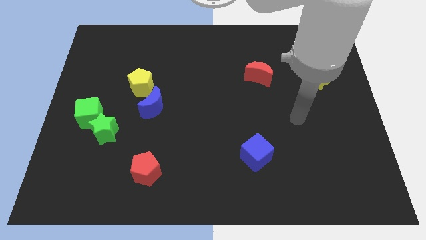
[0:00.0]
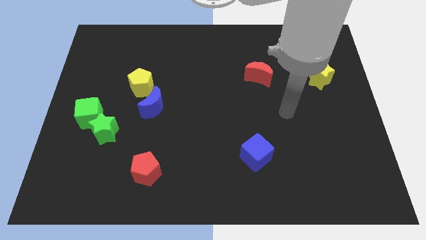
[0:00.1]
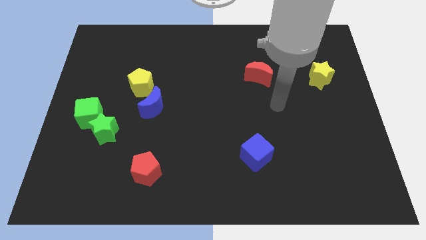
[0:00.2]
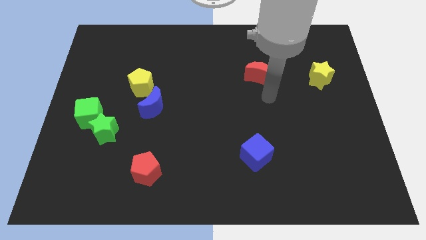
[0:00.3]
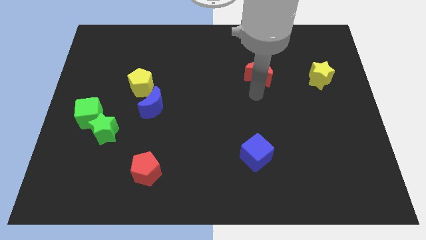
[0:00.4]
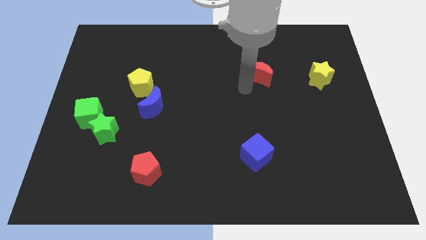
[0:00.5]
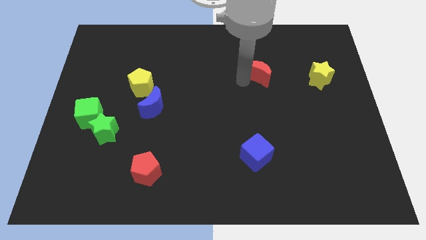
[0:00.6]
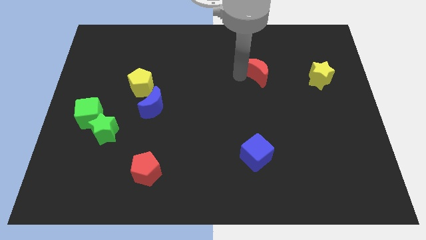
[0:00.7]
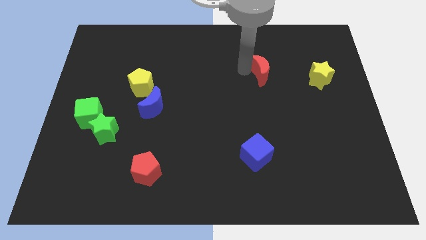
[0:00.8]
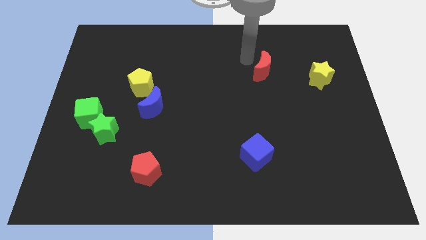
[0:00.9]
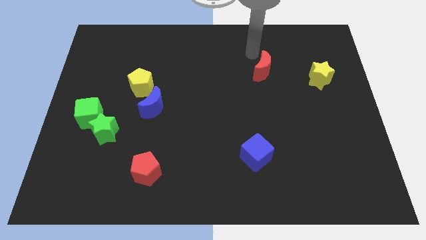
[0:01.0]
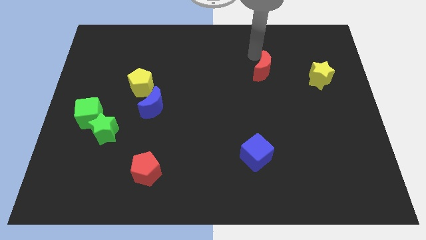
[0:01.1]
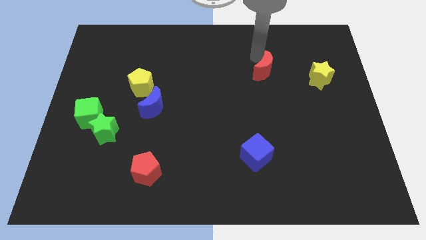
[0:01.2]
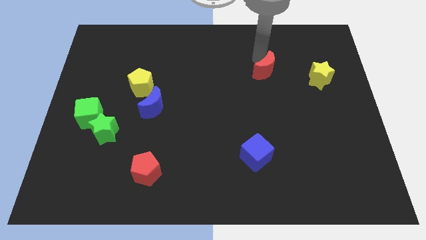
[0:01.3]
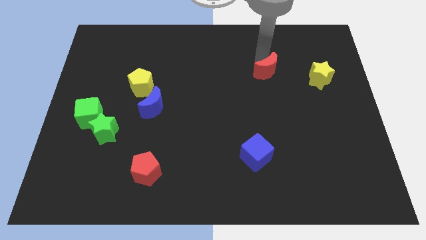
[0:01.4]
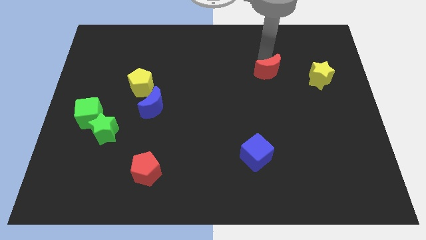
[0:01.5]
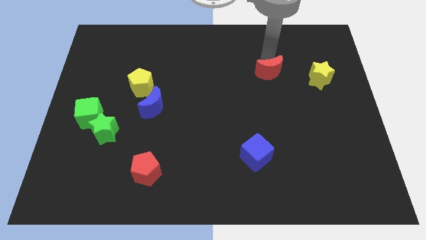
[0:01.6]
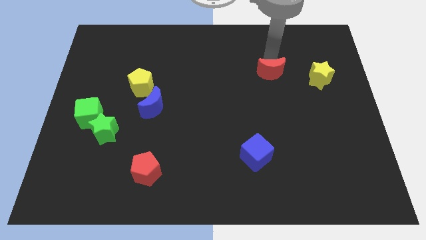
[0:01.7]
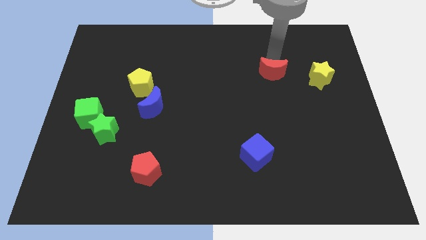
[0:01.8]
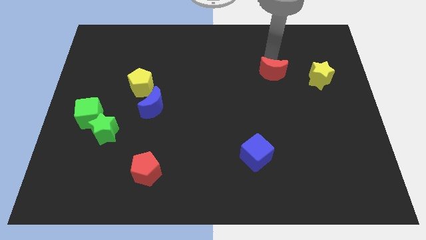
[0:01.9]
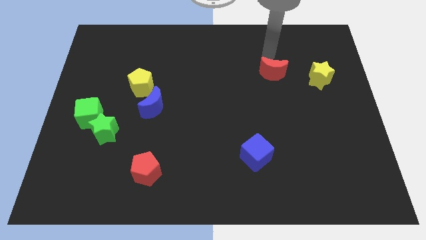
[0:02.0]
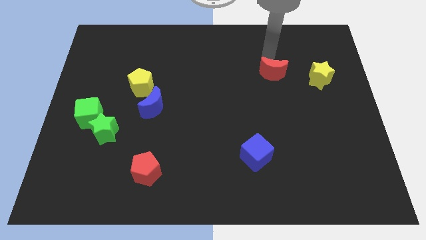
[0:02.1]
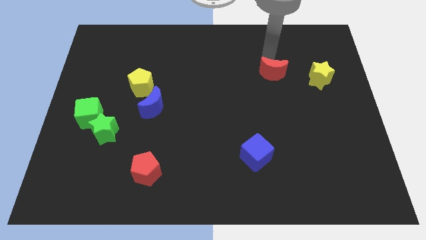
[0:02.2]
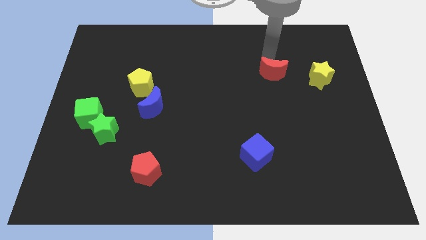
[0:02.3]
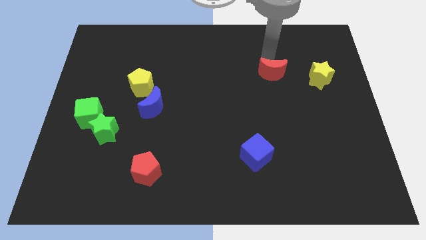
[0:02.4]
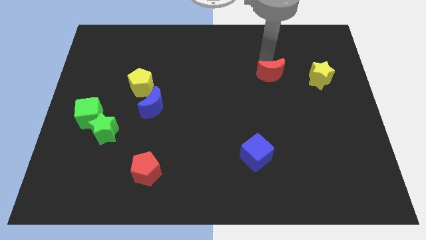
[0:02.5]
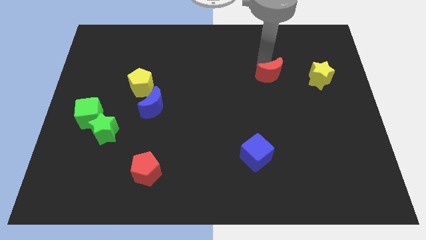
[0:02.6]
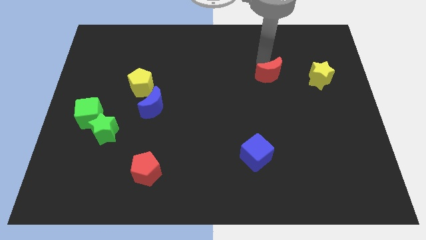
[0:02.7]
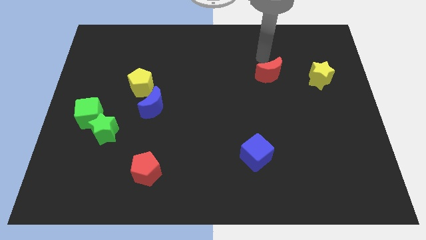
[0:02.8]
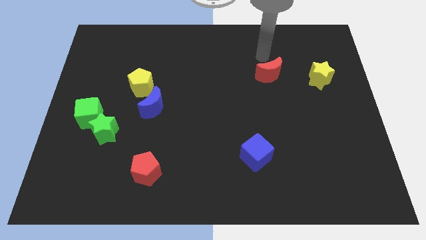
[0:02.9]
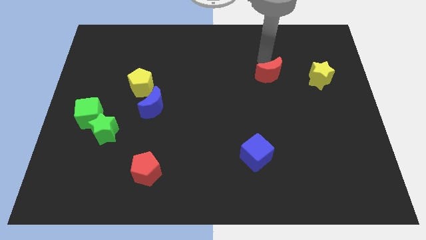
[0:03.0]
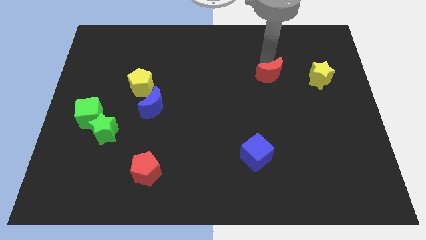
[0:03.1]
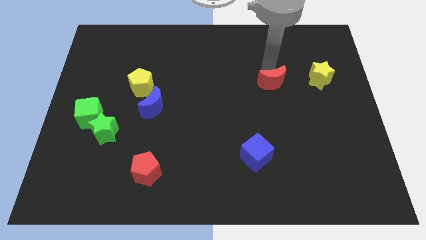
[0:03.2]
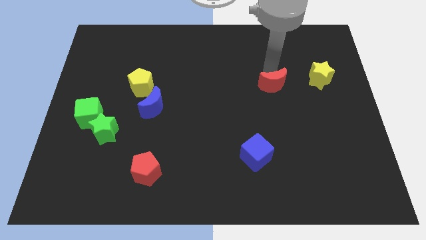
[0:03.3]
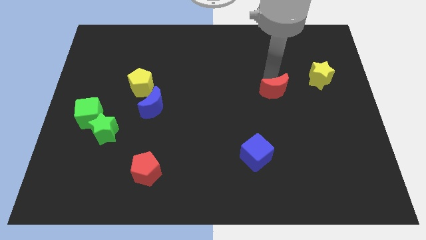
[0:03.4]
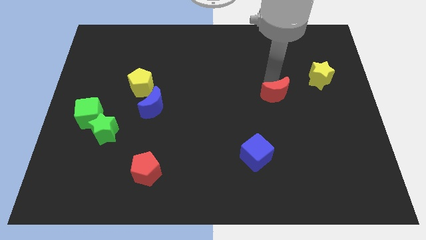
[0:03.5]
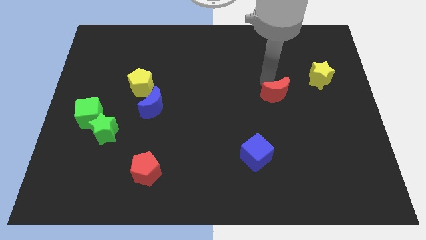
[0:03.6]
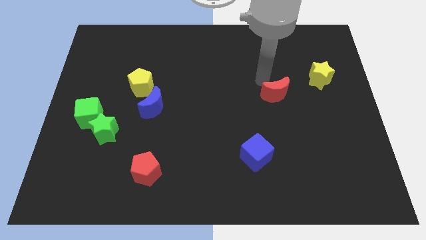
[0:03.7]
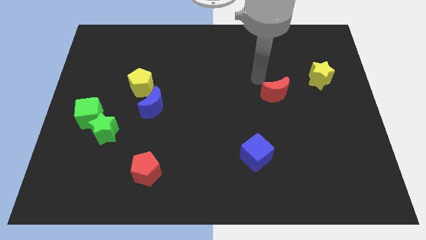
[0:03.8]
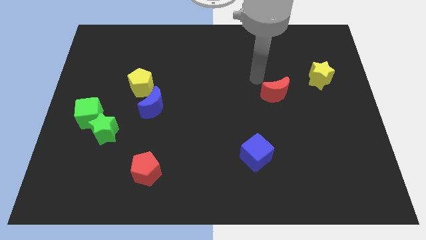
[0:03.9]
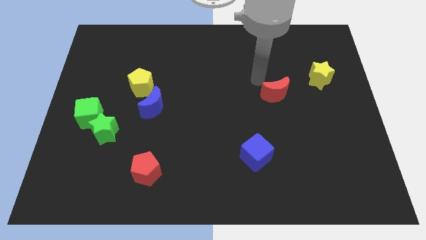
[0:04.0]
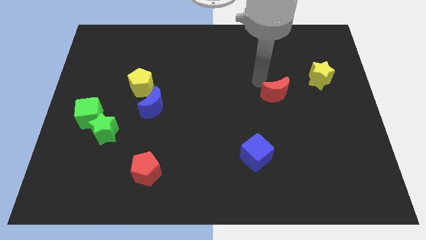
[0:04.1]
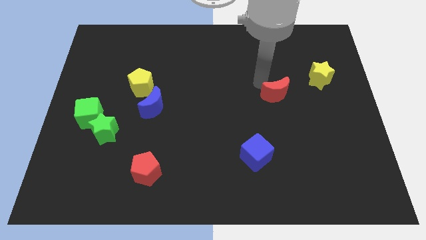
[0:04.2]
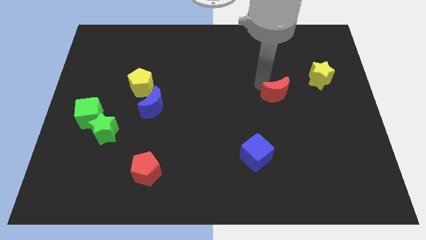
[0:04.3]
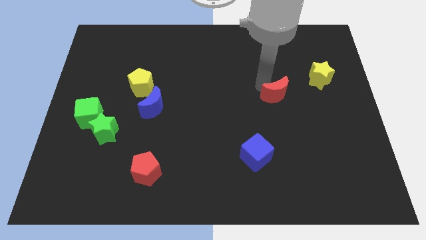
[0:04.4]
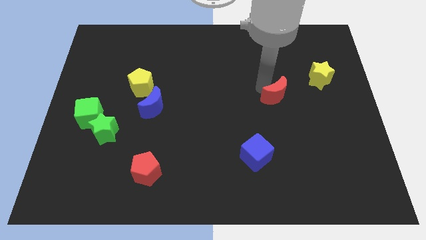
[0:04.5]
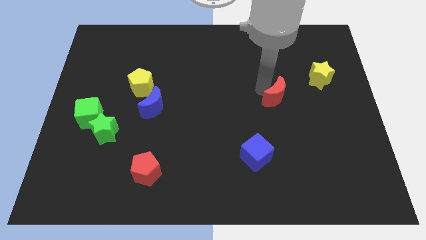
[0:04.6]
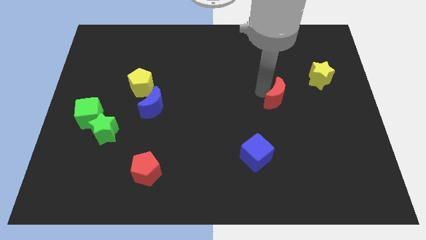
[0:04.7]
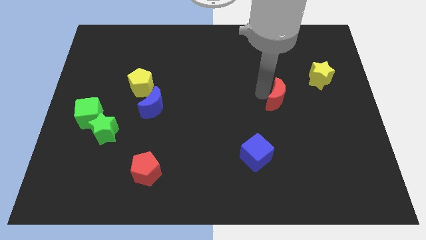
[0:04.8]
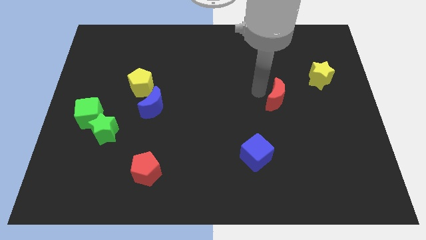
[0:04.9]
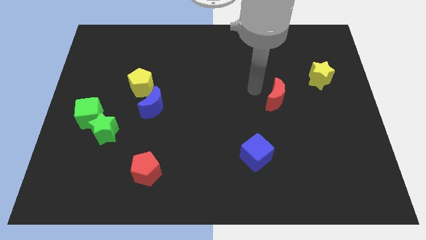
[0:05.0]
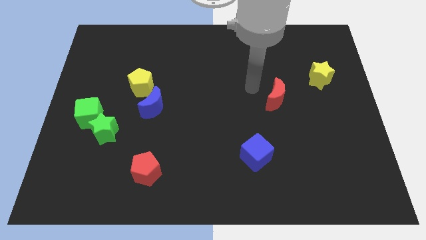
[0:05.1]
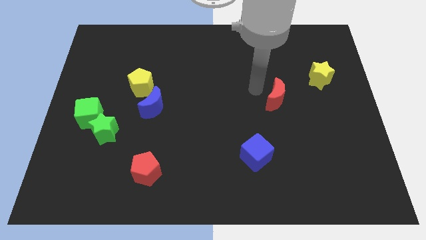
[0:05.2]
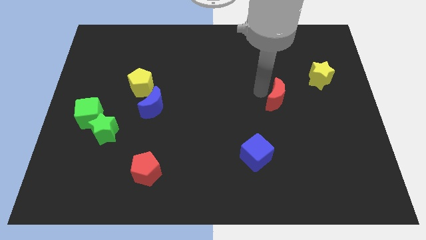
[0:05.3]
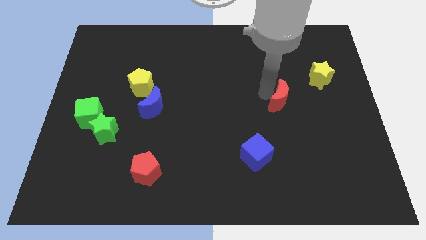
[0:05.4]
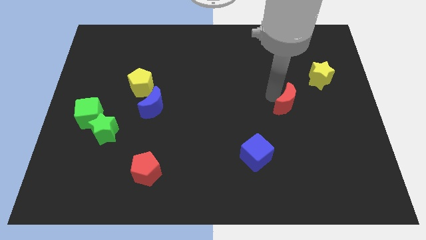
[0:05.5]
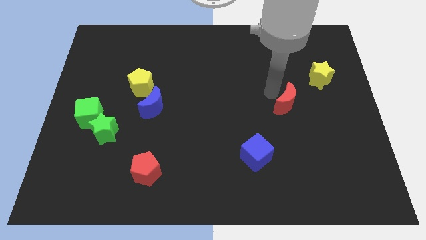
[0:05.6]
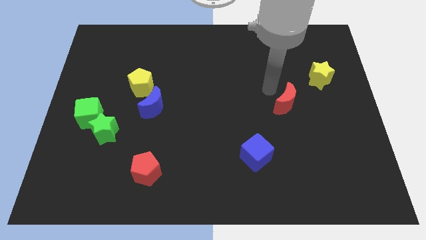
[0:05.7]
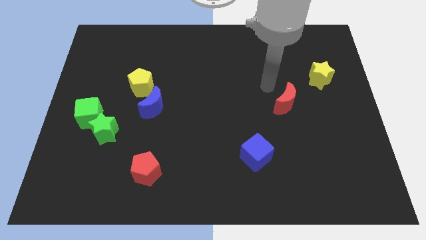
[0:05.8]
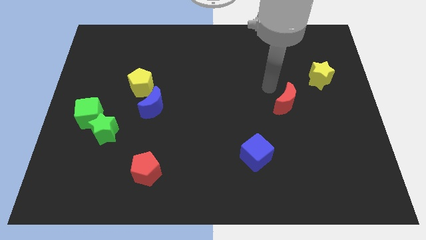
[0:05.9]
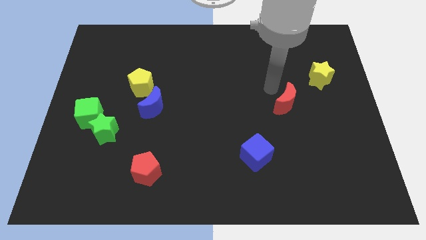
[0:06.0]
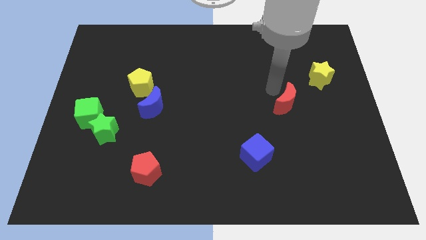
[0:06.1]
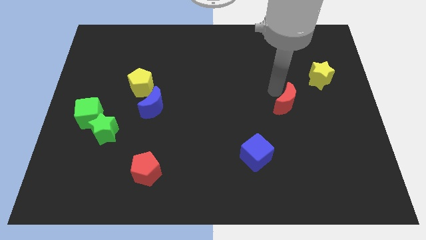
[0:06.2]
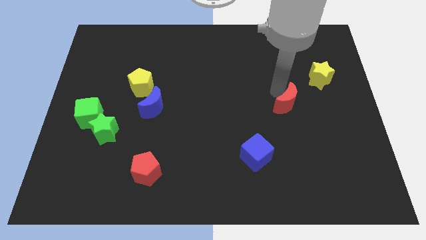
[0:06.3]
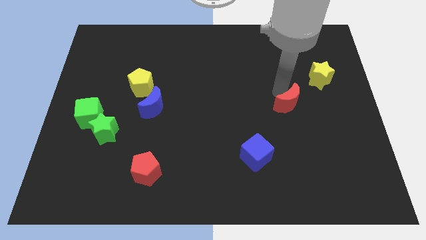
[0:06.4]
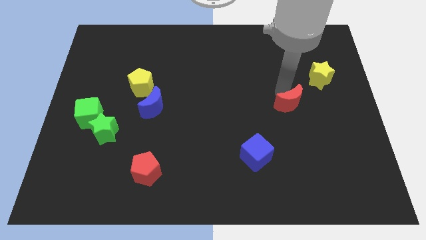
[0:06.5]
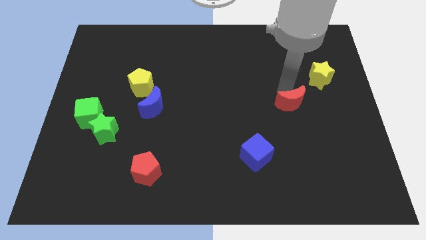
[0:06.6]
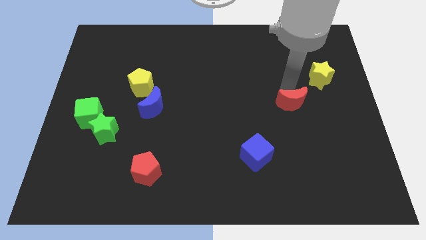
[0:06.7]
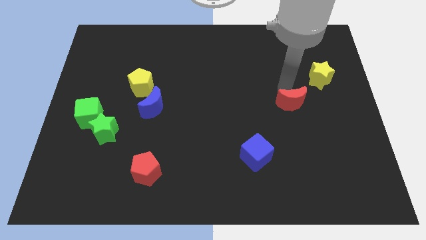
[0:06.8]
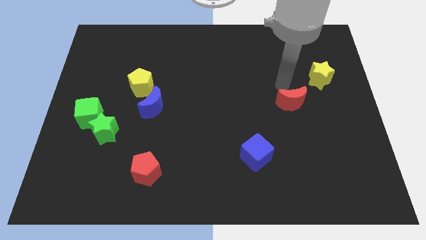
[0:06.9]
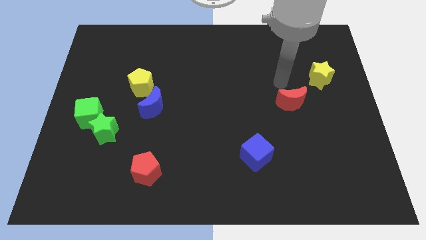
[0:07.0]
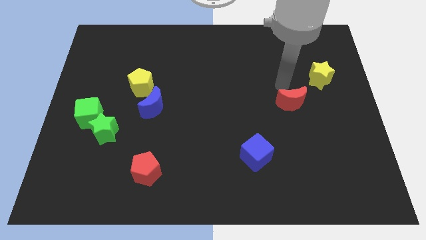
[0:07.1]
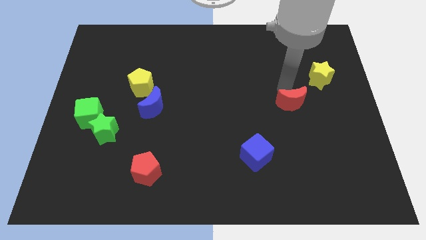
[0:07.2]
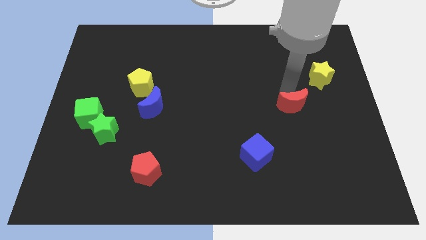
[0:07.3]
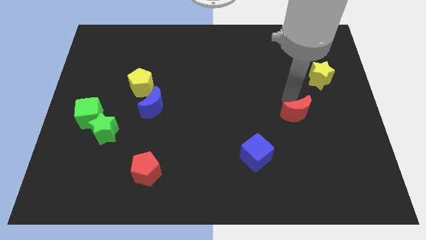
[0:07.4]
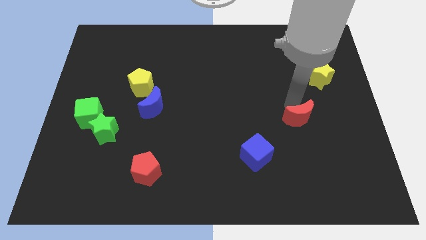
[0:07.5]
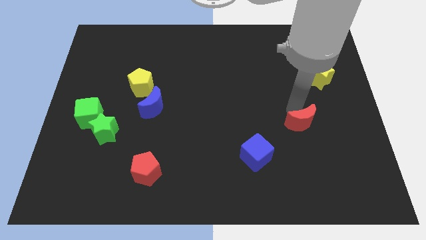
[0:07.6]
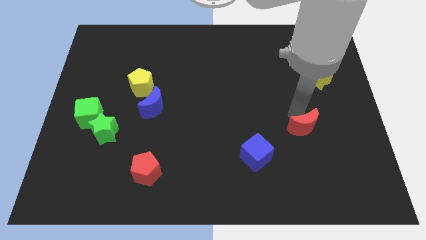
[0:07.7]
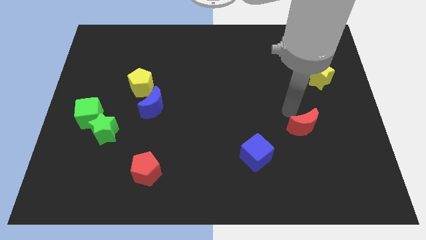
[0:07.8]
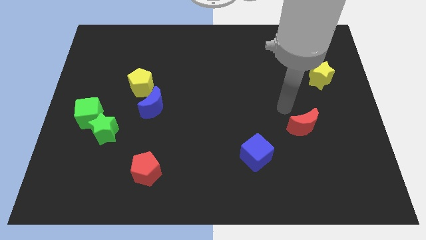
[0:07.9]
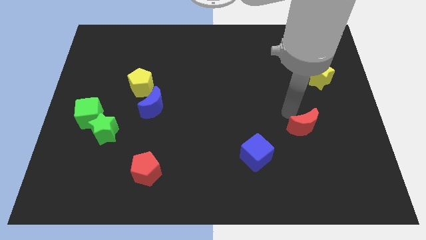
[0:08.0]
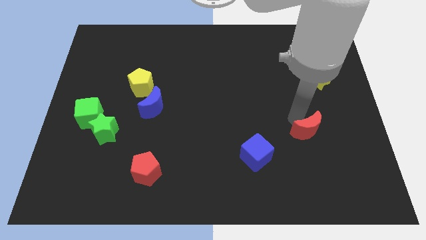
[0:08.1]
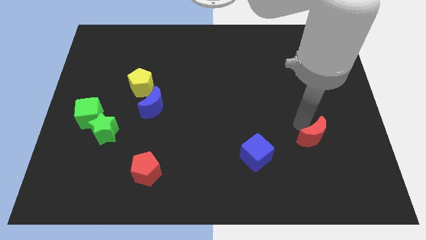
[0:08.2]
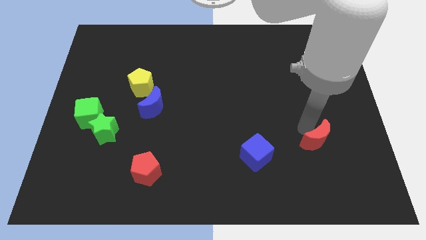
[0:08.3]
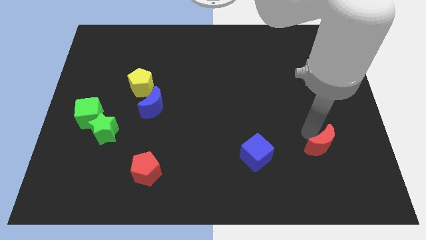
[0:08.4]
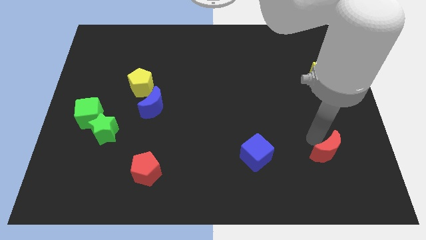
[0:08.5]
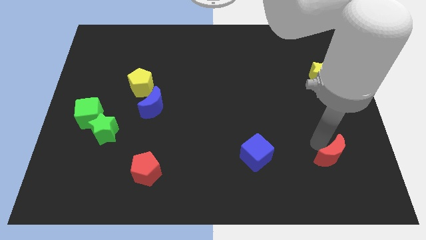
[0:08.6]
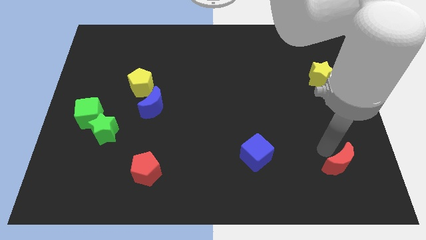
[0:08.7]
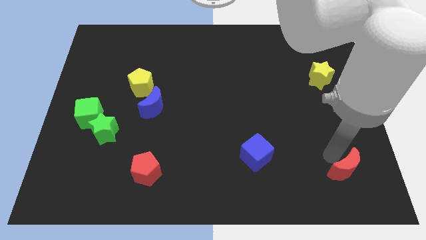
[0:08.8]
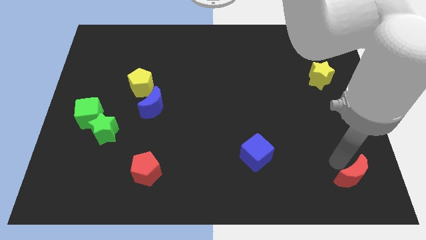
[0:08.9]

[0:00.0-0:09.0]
slide the red moon to the bottom right
